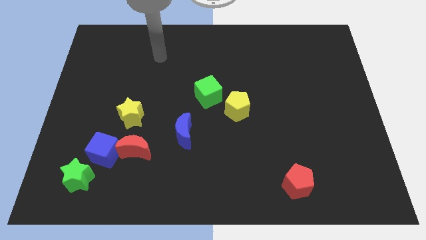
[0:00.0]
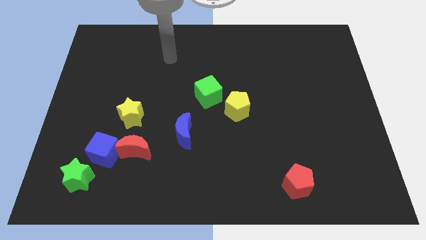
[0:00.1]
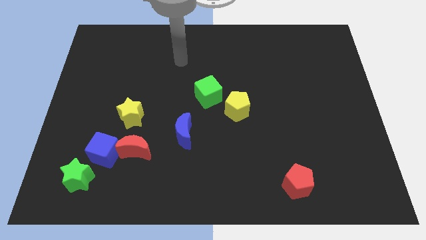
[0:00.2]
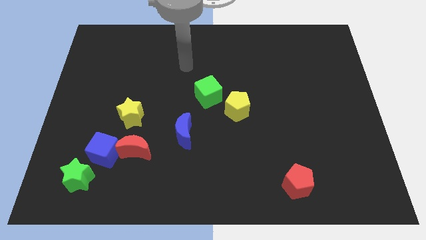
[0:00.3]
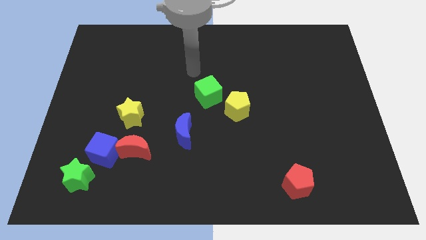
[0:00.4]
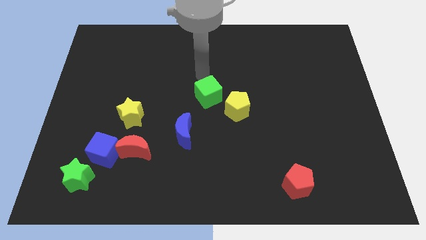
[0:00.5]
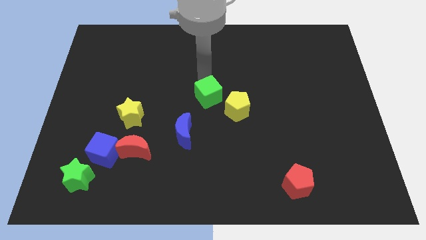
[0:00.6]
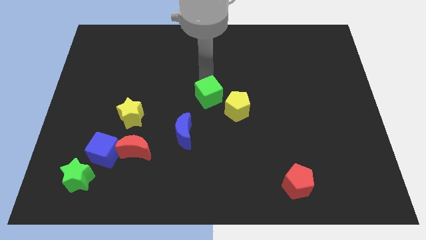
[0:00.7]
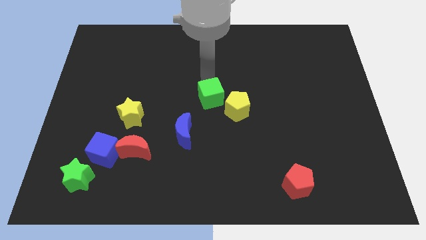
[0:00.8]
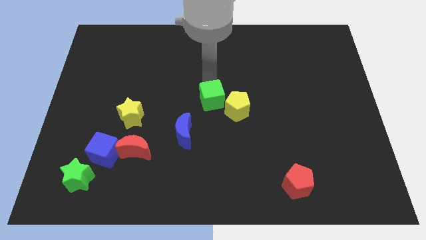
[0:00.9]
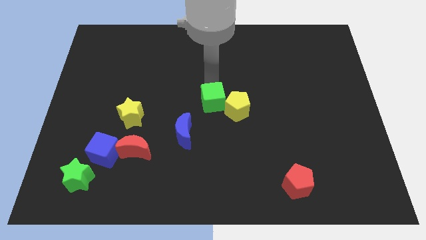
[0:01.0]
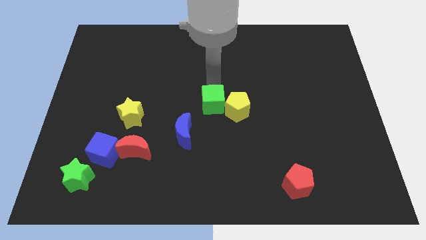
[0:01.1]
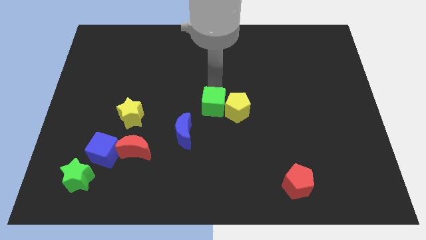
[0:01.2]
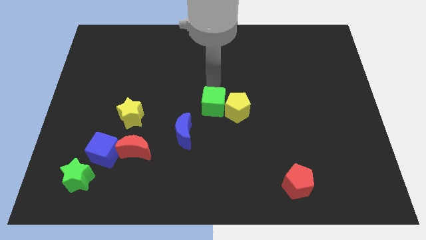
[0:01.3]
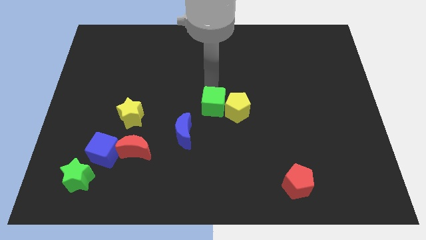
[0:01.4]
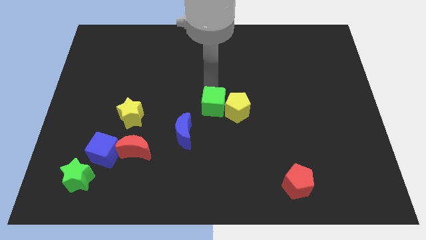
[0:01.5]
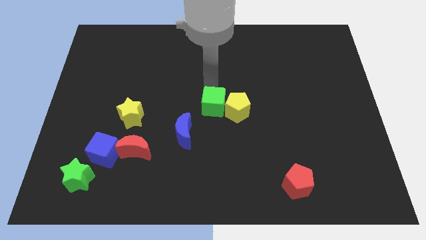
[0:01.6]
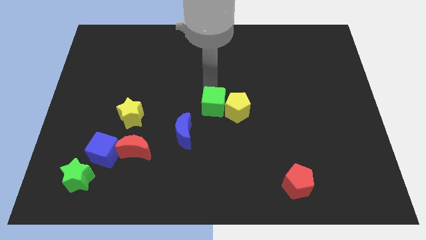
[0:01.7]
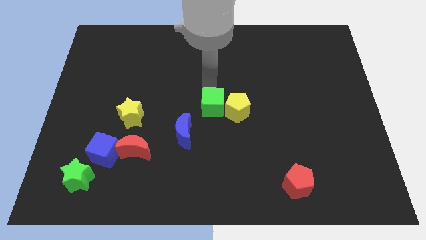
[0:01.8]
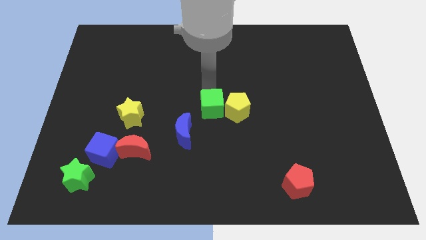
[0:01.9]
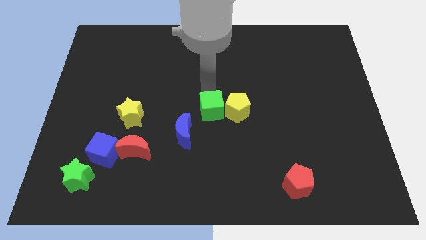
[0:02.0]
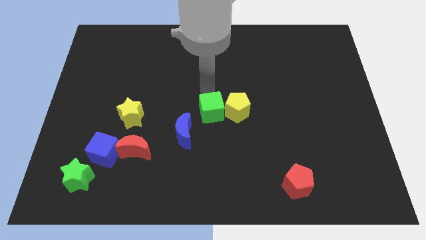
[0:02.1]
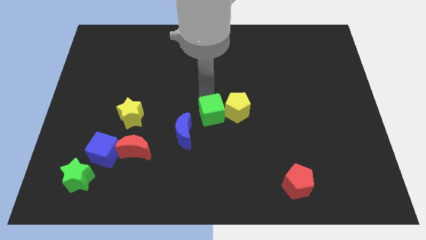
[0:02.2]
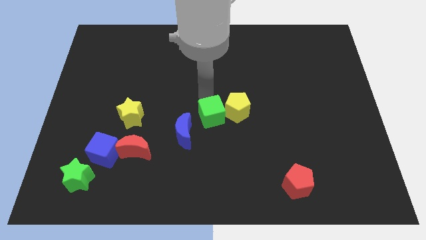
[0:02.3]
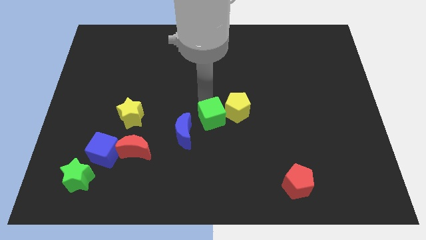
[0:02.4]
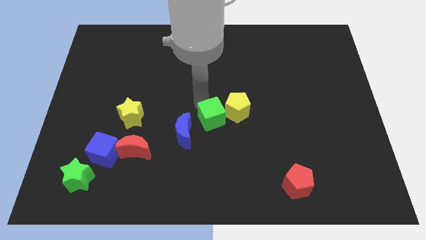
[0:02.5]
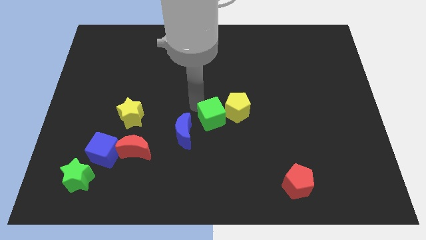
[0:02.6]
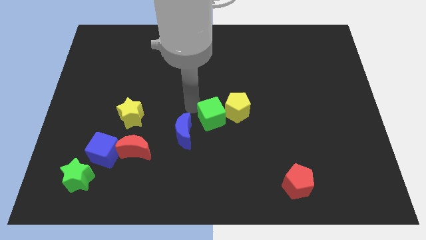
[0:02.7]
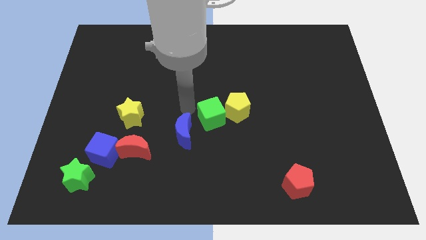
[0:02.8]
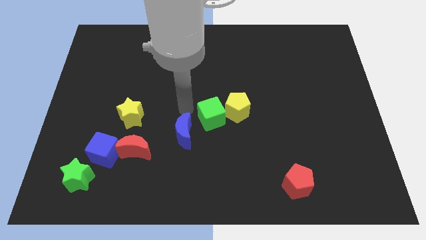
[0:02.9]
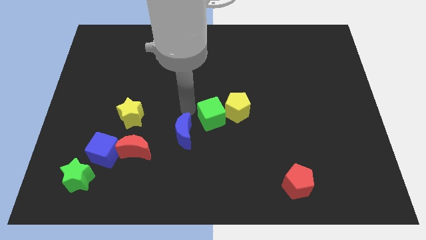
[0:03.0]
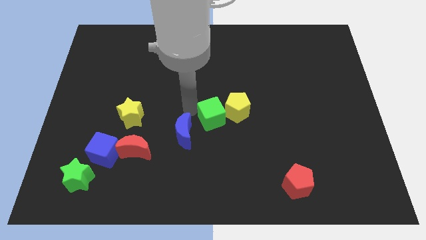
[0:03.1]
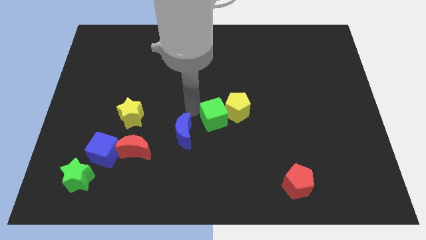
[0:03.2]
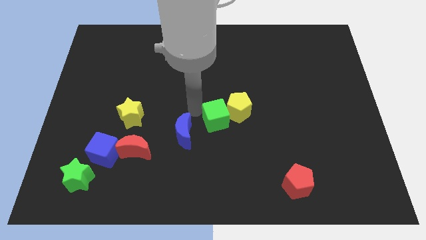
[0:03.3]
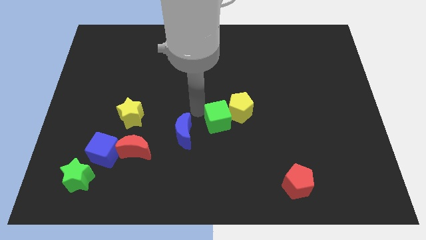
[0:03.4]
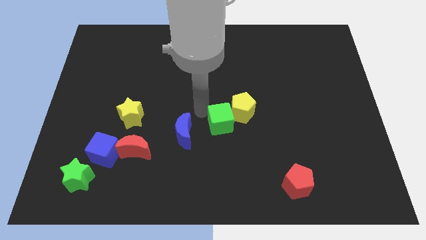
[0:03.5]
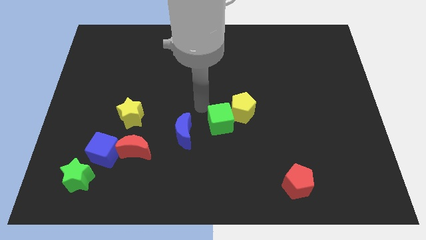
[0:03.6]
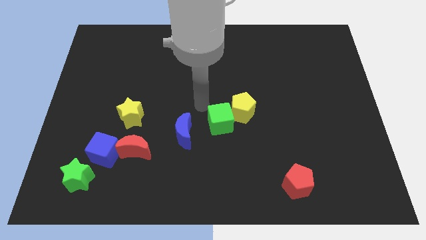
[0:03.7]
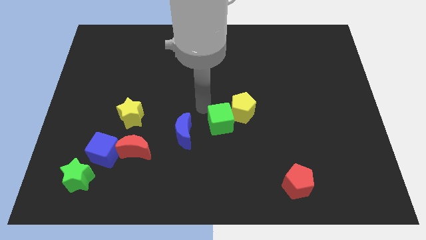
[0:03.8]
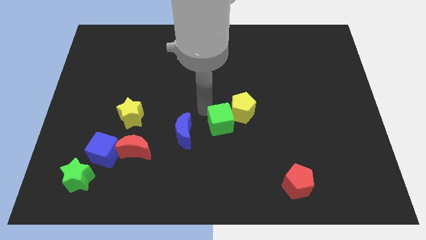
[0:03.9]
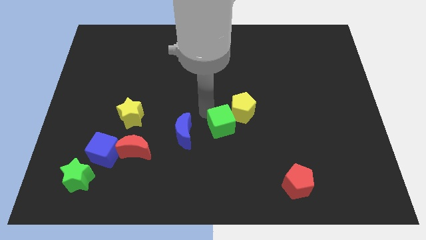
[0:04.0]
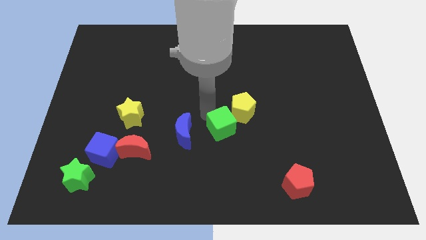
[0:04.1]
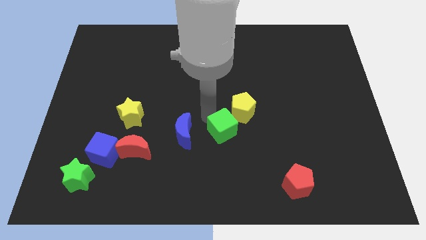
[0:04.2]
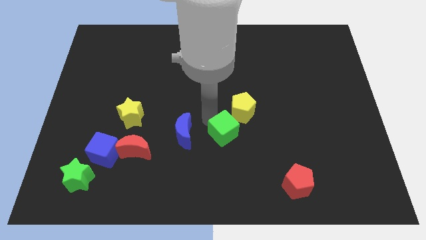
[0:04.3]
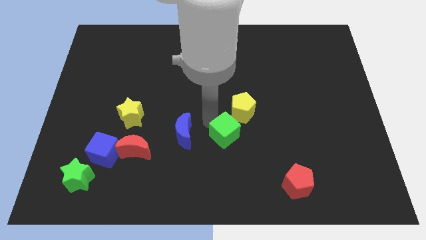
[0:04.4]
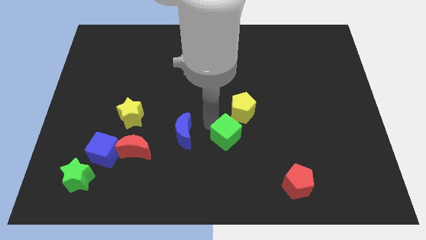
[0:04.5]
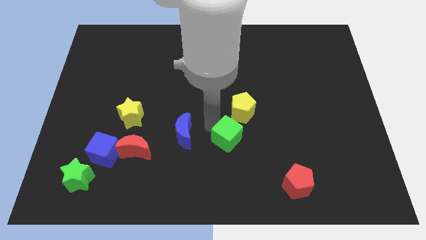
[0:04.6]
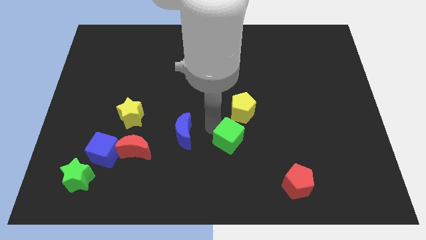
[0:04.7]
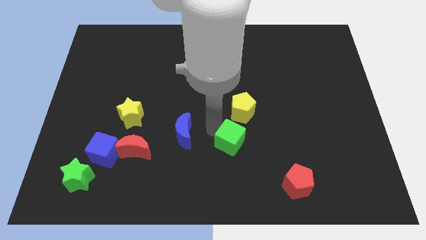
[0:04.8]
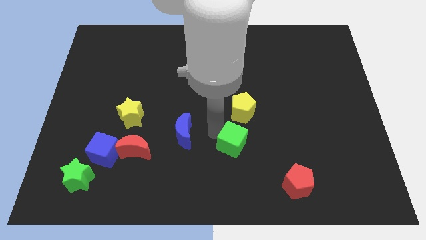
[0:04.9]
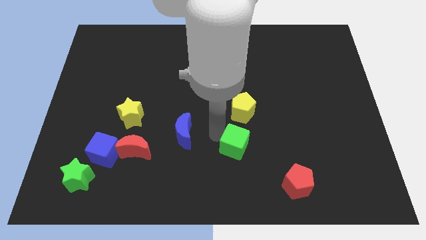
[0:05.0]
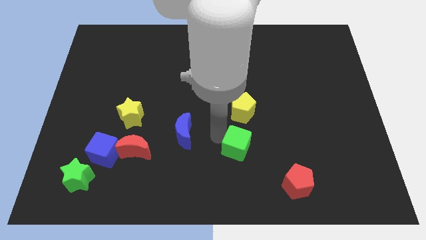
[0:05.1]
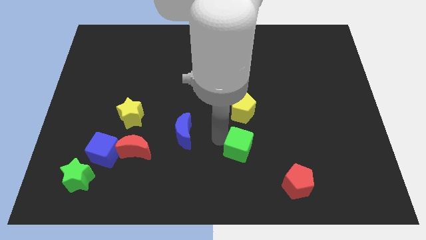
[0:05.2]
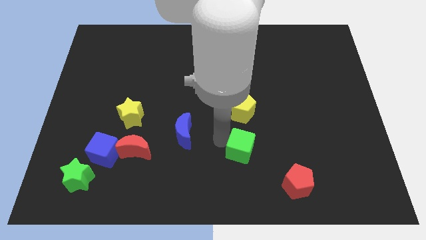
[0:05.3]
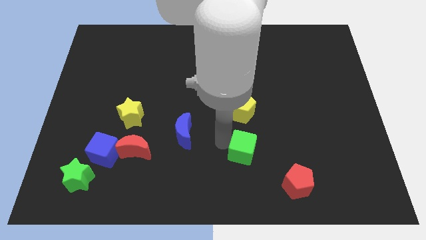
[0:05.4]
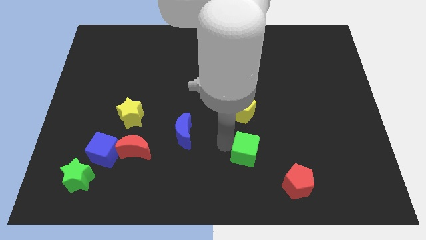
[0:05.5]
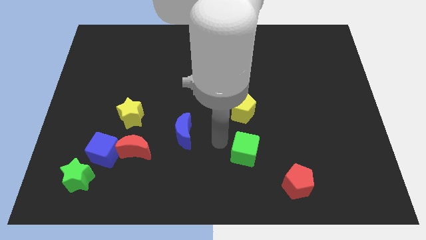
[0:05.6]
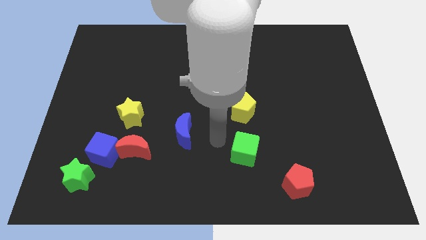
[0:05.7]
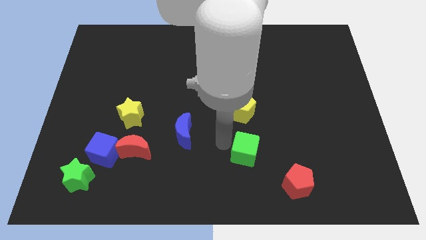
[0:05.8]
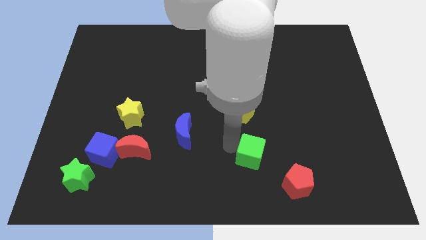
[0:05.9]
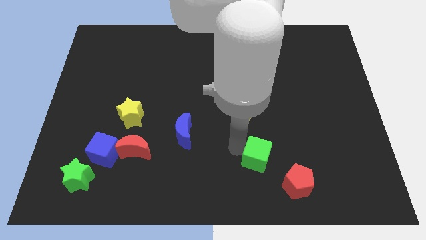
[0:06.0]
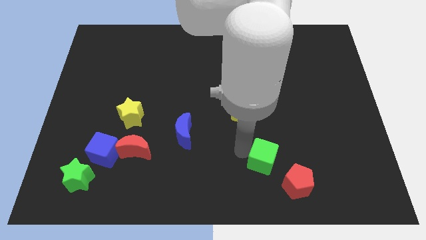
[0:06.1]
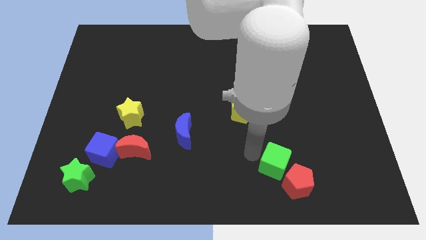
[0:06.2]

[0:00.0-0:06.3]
push the green cube next to the red pentagon

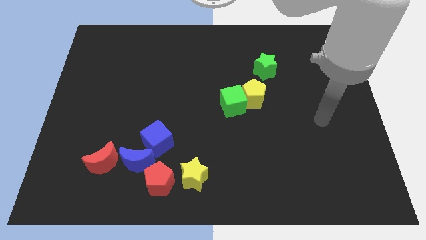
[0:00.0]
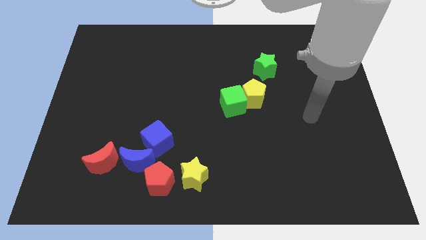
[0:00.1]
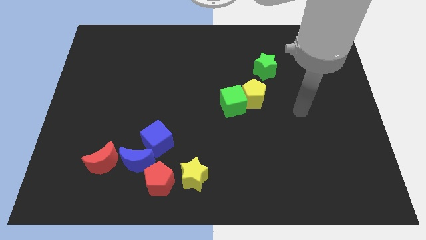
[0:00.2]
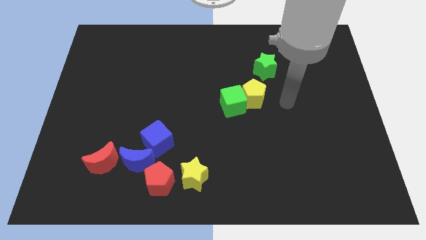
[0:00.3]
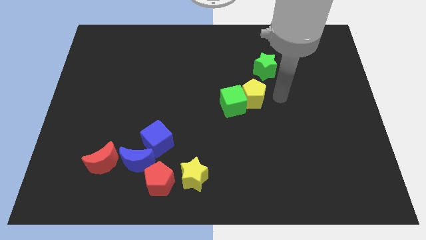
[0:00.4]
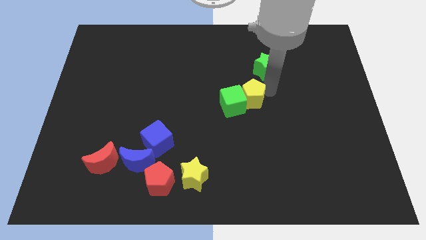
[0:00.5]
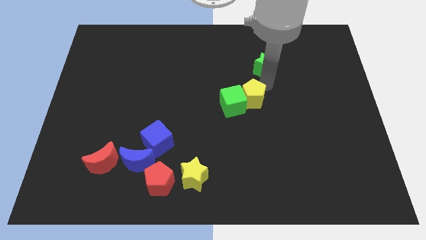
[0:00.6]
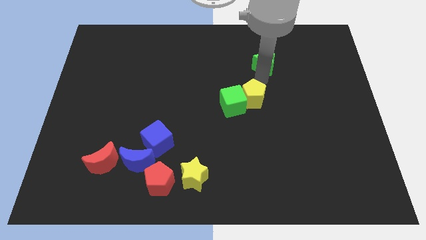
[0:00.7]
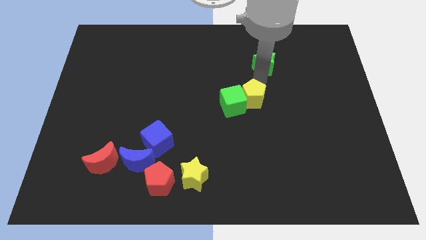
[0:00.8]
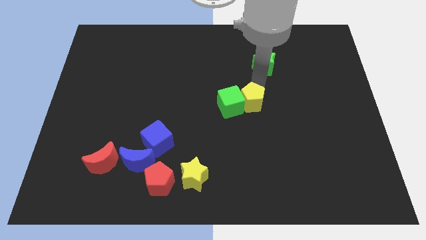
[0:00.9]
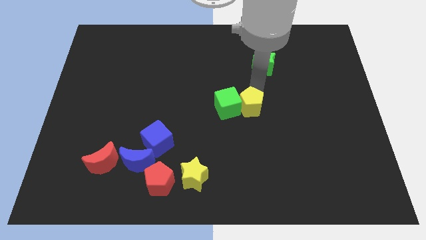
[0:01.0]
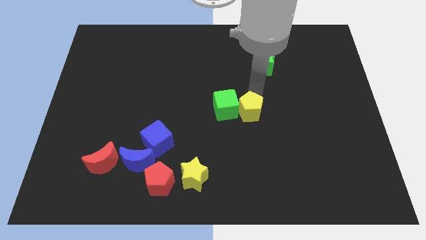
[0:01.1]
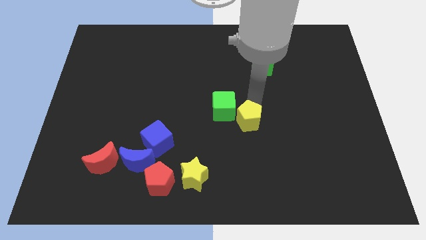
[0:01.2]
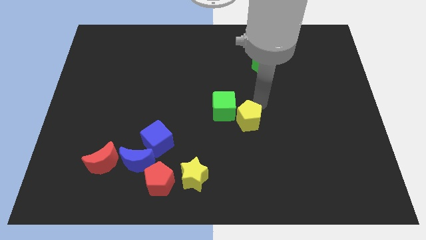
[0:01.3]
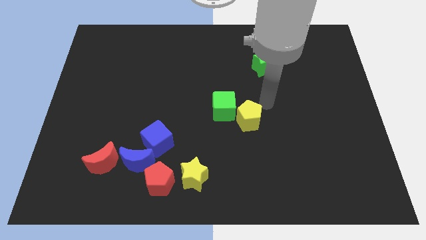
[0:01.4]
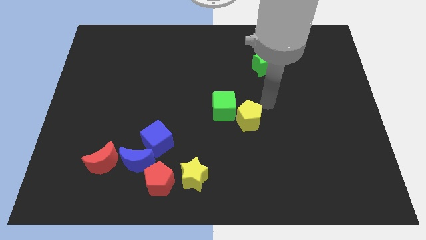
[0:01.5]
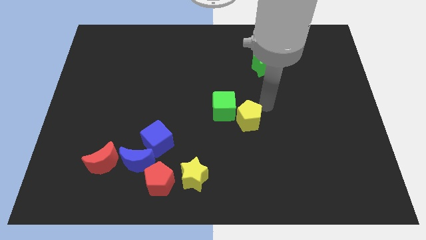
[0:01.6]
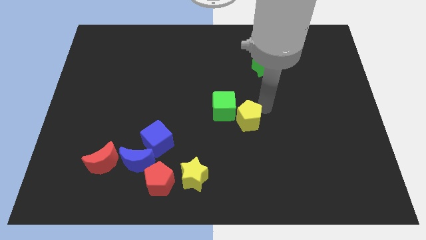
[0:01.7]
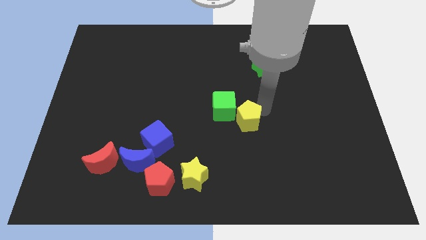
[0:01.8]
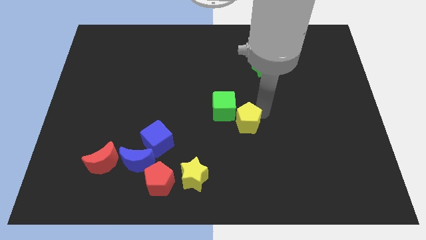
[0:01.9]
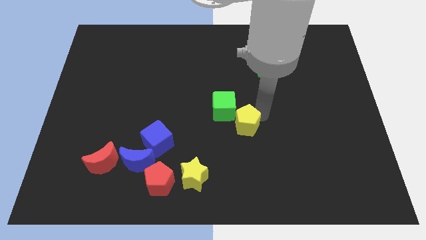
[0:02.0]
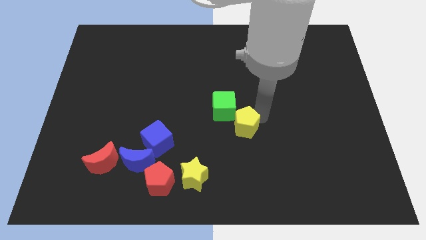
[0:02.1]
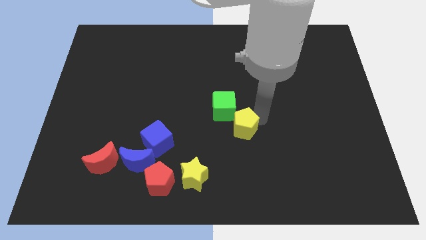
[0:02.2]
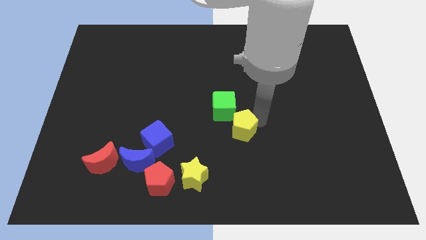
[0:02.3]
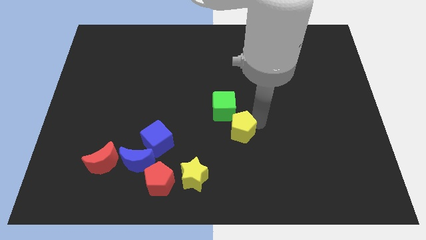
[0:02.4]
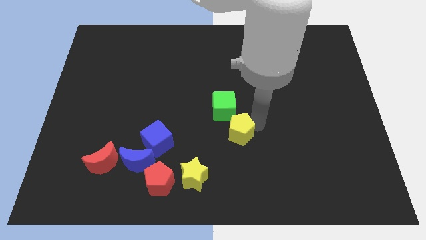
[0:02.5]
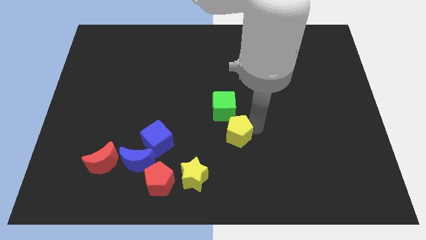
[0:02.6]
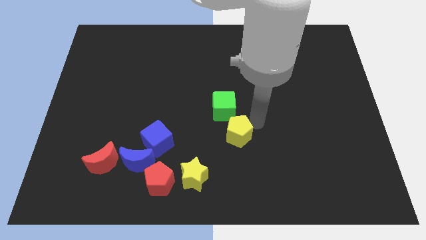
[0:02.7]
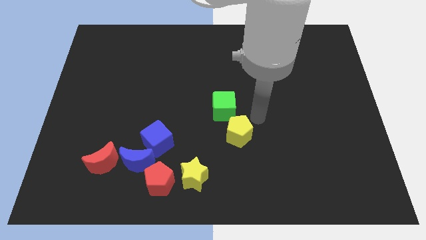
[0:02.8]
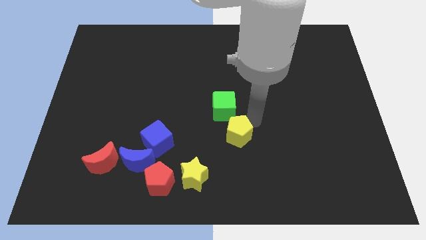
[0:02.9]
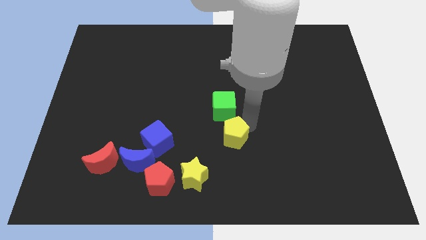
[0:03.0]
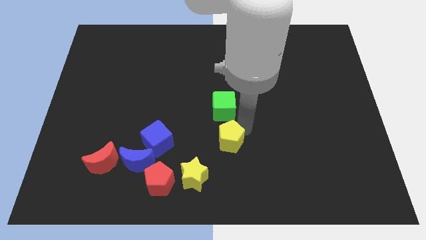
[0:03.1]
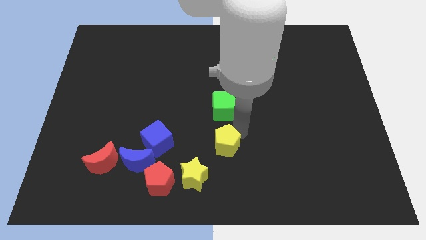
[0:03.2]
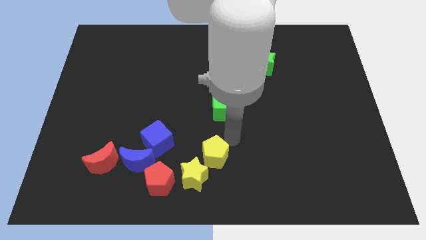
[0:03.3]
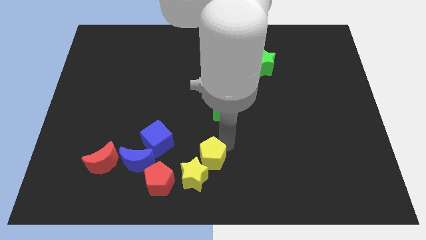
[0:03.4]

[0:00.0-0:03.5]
move the yellow pentagon to the yellow star
